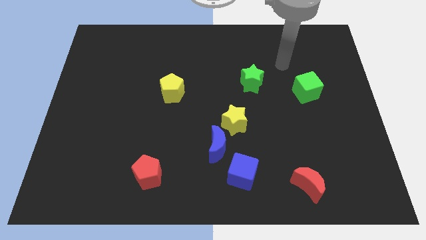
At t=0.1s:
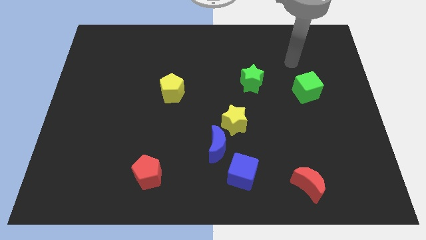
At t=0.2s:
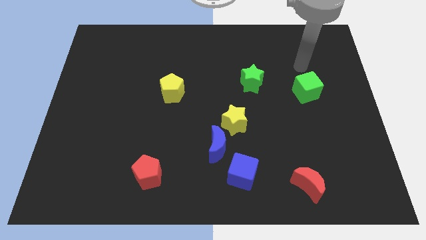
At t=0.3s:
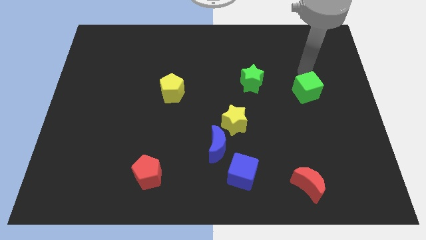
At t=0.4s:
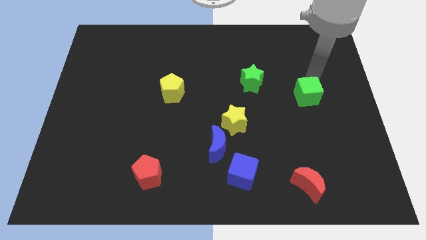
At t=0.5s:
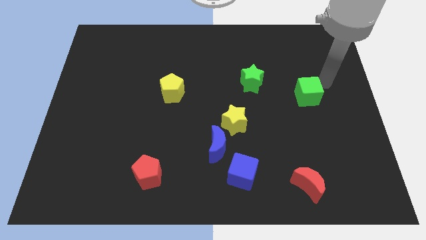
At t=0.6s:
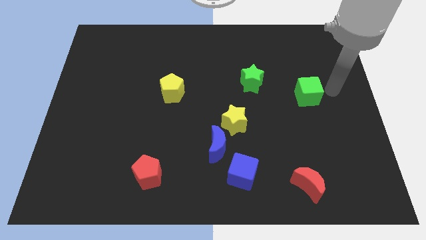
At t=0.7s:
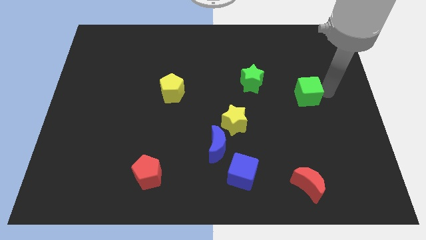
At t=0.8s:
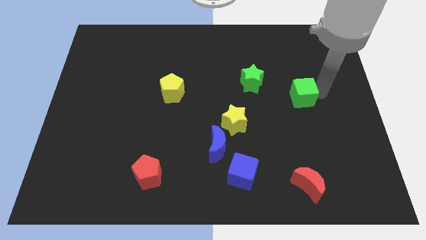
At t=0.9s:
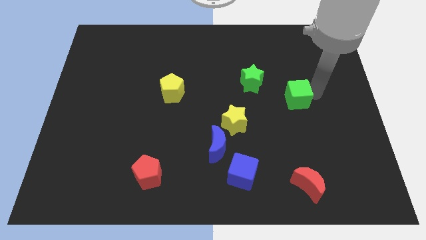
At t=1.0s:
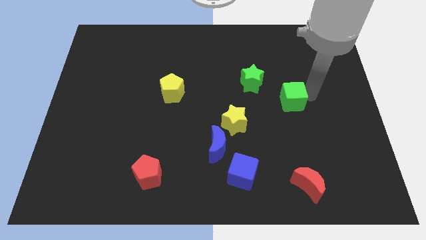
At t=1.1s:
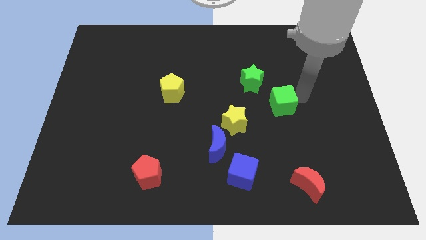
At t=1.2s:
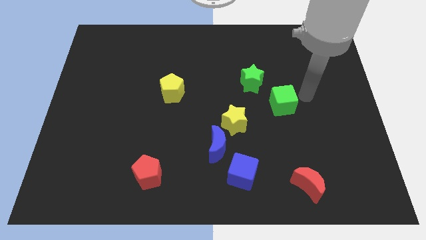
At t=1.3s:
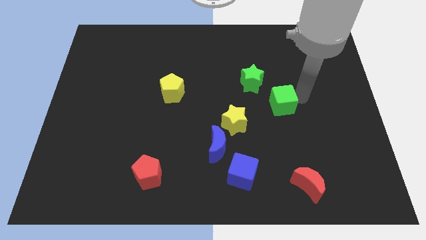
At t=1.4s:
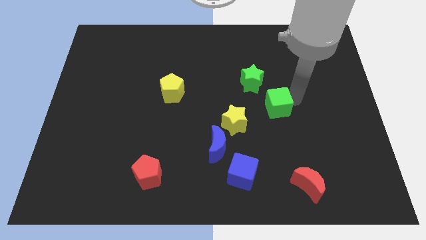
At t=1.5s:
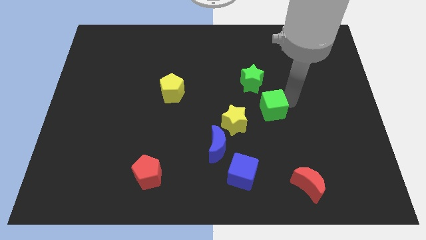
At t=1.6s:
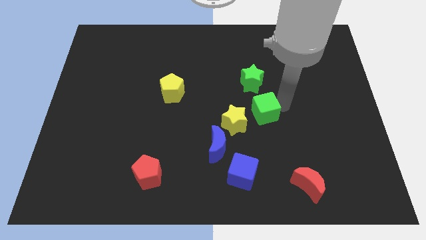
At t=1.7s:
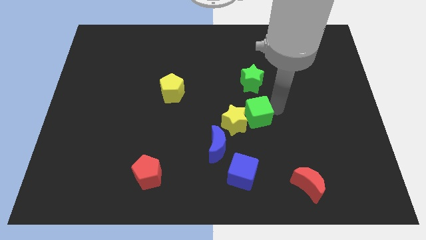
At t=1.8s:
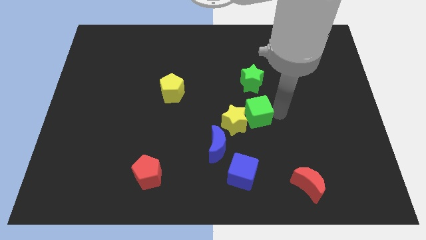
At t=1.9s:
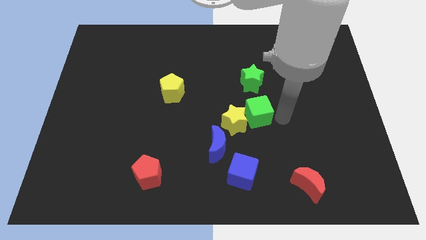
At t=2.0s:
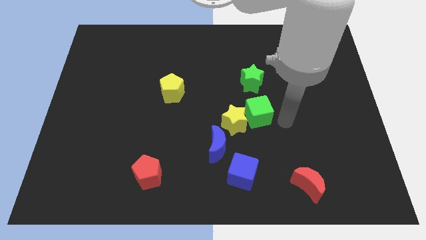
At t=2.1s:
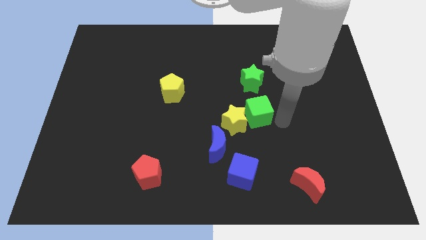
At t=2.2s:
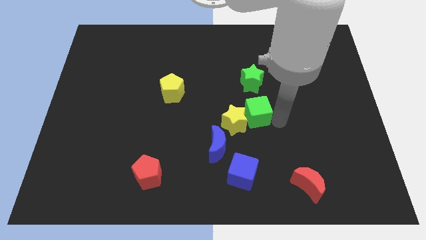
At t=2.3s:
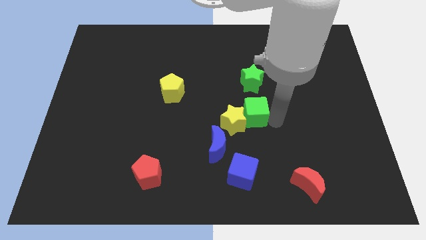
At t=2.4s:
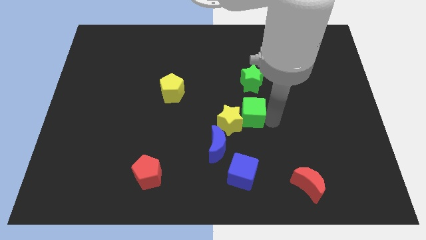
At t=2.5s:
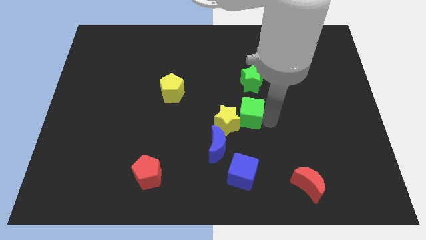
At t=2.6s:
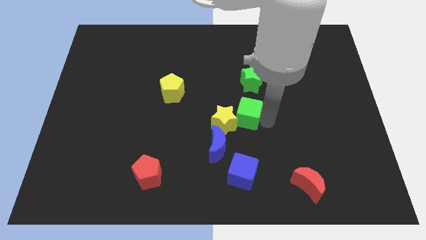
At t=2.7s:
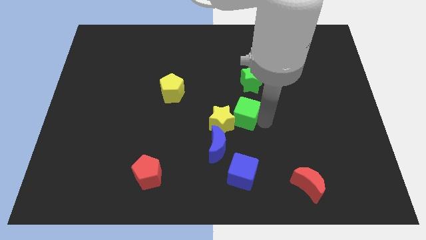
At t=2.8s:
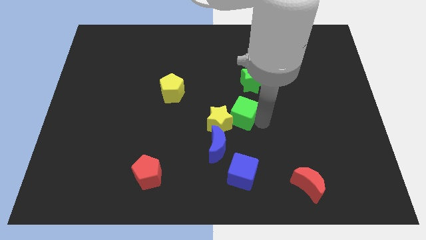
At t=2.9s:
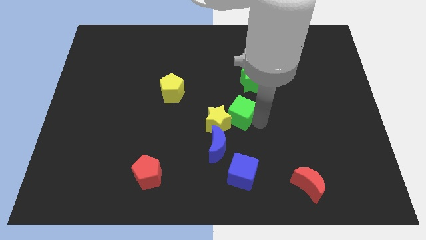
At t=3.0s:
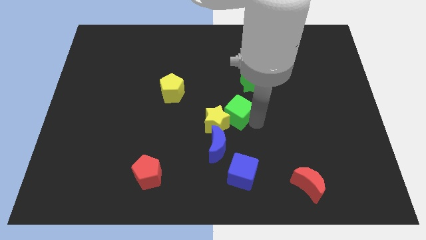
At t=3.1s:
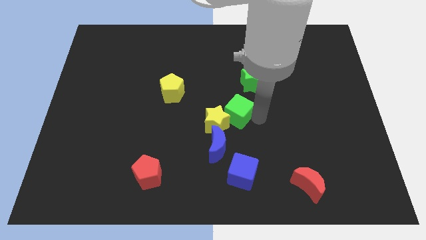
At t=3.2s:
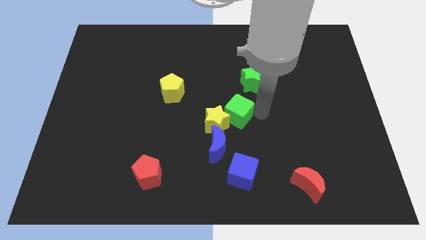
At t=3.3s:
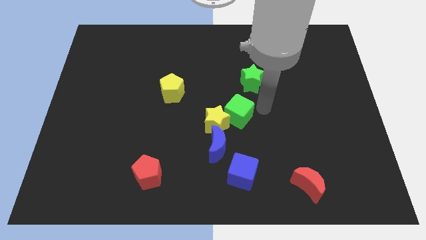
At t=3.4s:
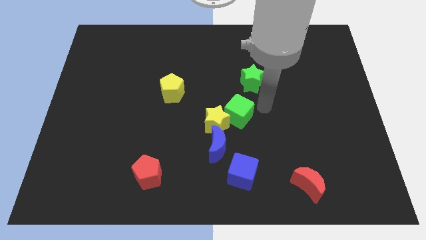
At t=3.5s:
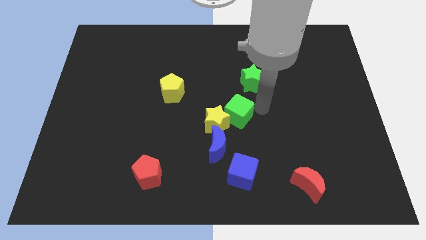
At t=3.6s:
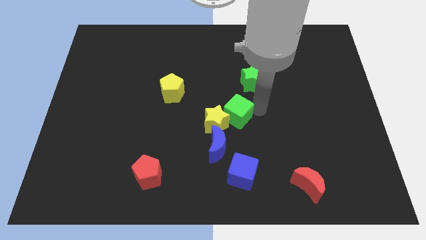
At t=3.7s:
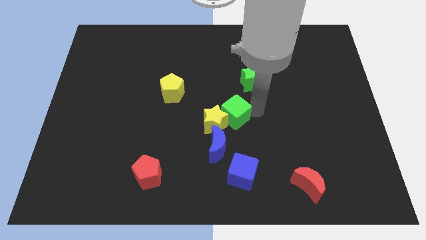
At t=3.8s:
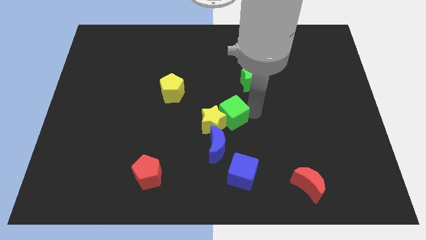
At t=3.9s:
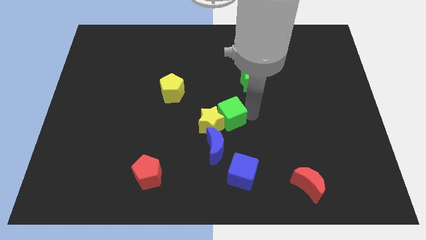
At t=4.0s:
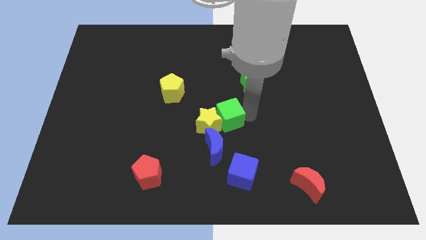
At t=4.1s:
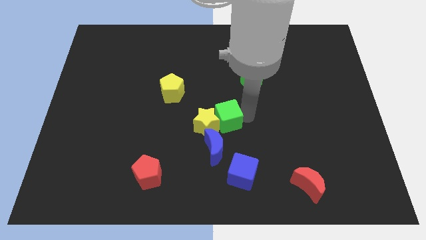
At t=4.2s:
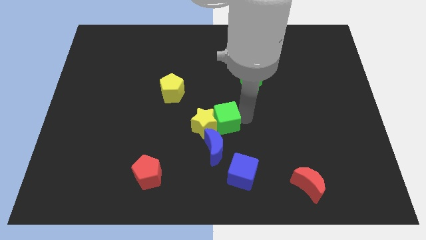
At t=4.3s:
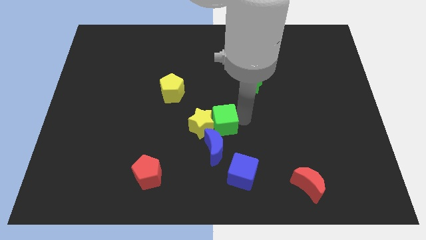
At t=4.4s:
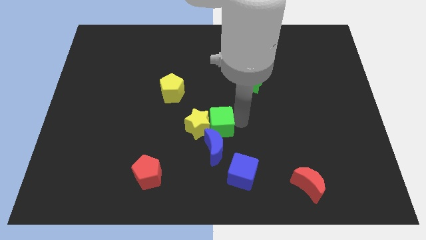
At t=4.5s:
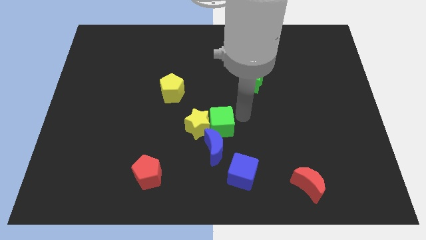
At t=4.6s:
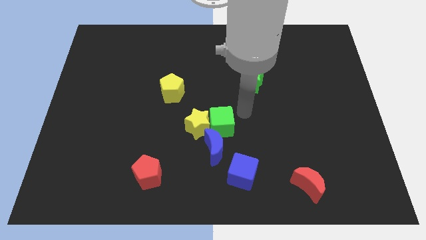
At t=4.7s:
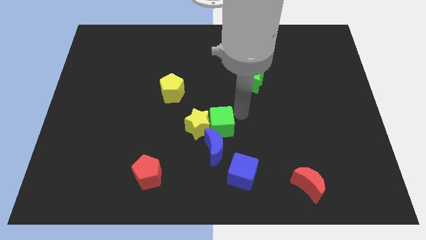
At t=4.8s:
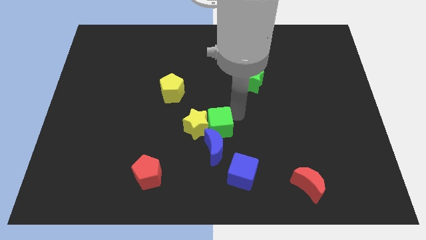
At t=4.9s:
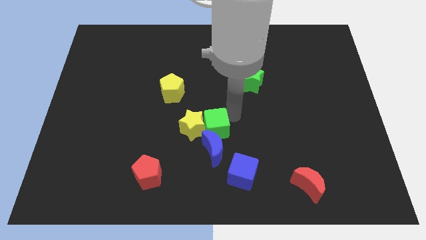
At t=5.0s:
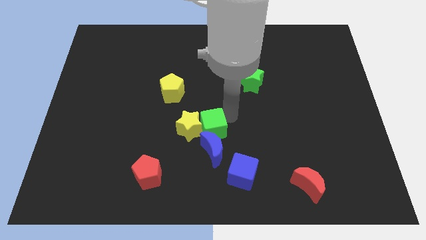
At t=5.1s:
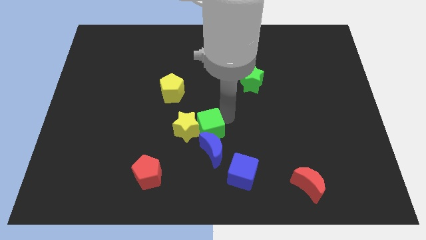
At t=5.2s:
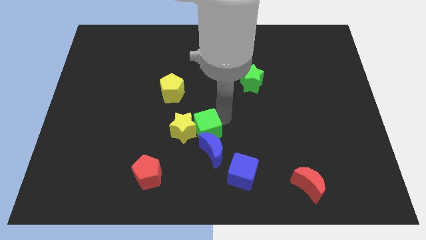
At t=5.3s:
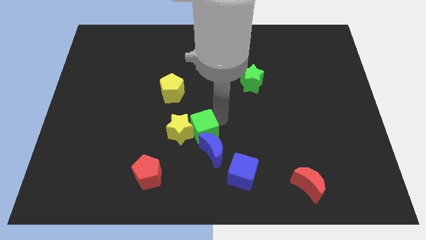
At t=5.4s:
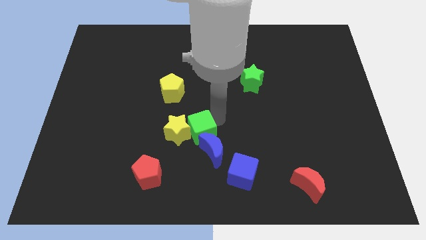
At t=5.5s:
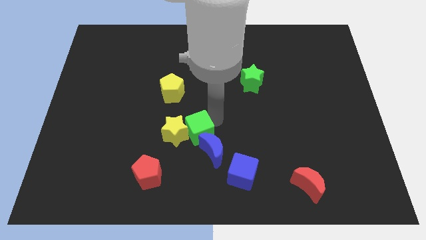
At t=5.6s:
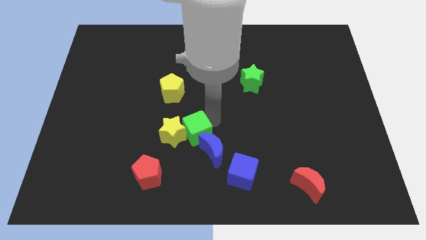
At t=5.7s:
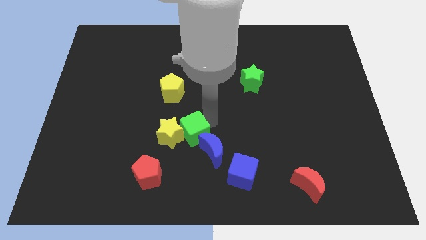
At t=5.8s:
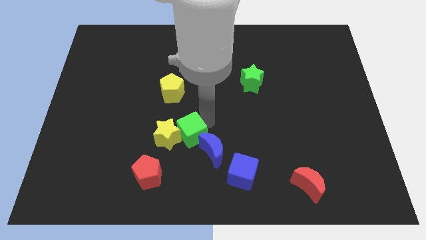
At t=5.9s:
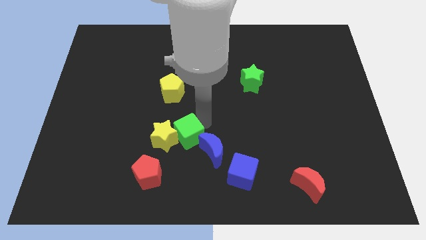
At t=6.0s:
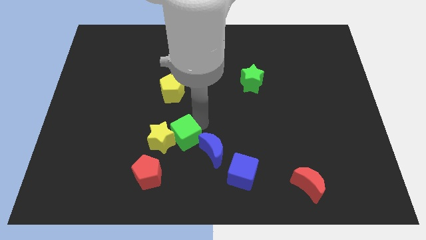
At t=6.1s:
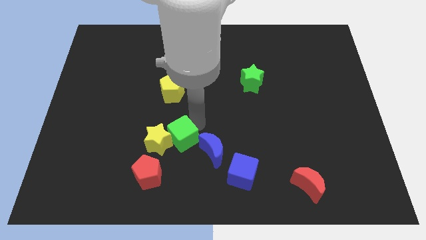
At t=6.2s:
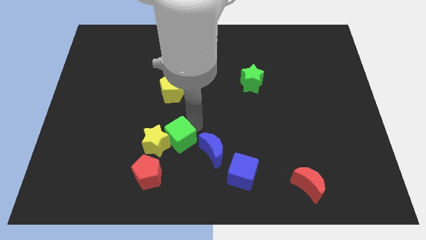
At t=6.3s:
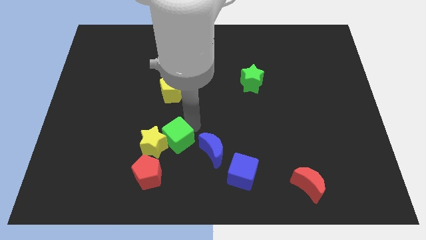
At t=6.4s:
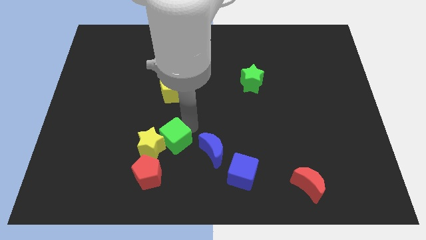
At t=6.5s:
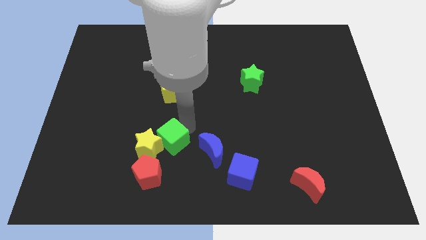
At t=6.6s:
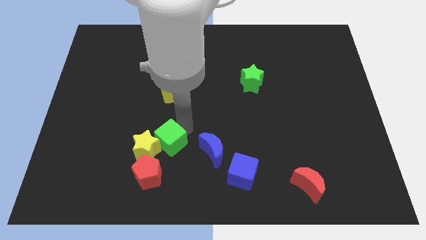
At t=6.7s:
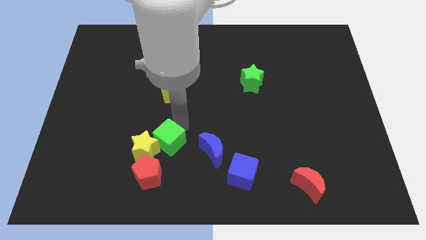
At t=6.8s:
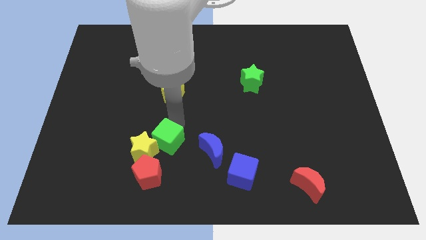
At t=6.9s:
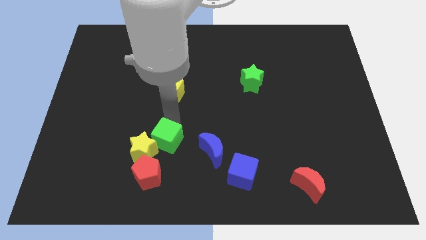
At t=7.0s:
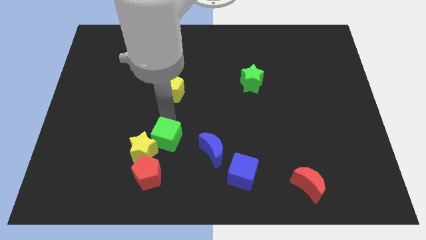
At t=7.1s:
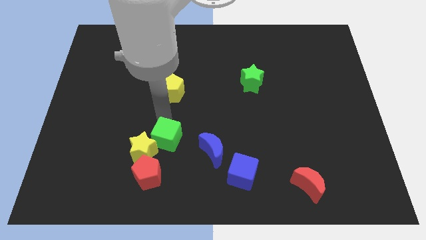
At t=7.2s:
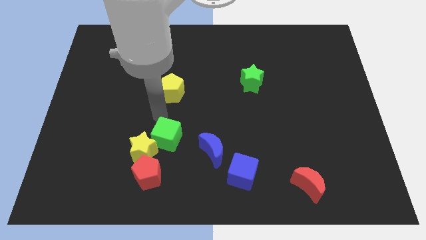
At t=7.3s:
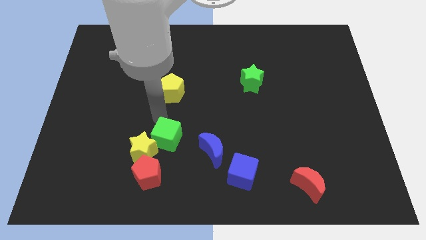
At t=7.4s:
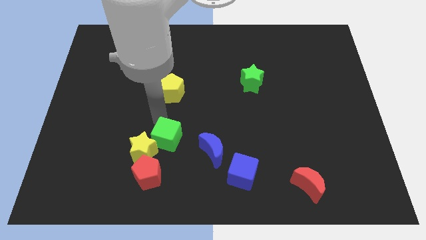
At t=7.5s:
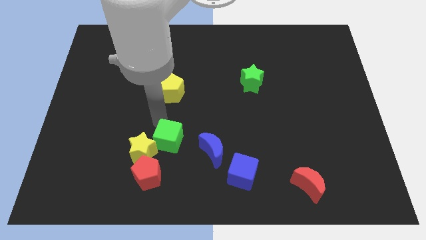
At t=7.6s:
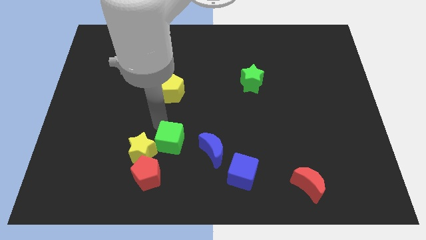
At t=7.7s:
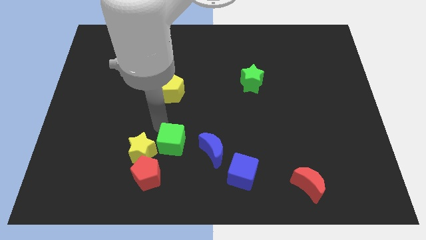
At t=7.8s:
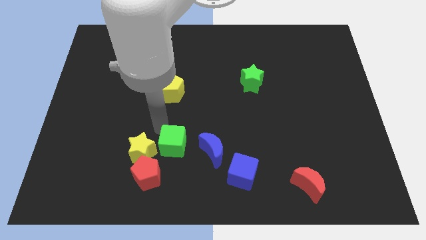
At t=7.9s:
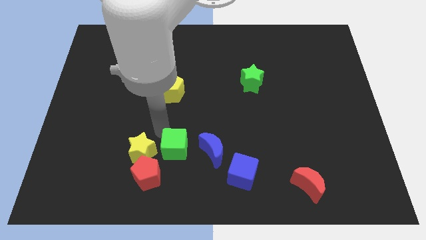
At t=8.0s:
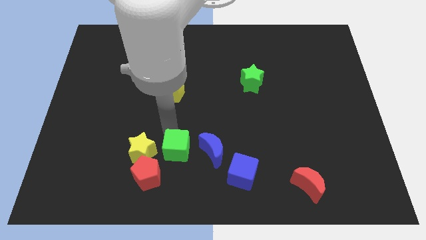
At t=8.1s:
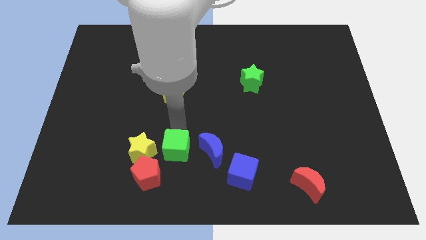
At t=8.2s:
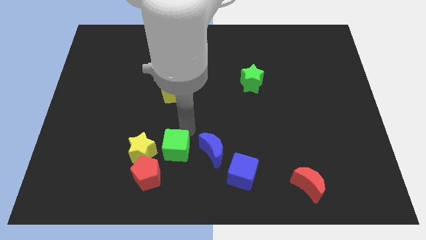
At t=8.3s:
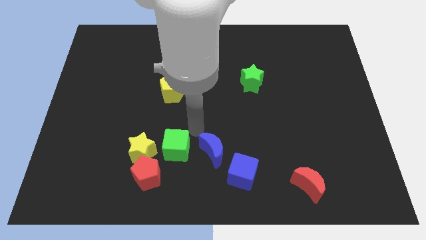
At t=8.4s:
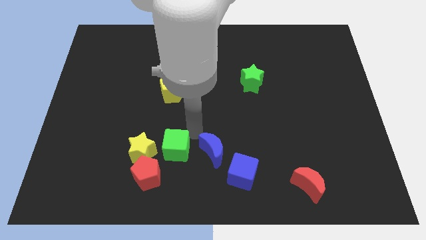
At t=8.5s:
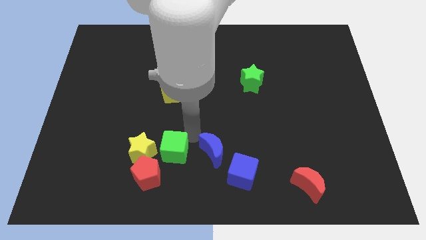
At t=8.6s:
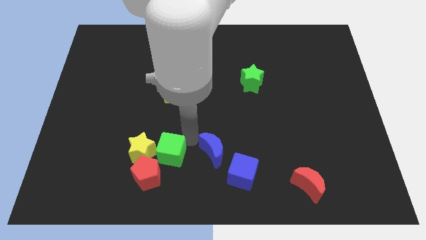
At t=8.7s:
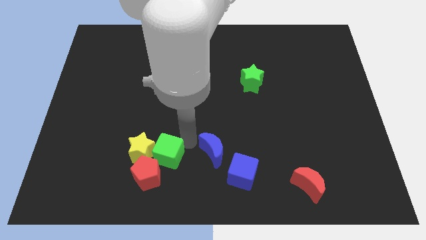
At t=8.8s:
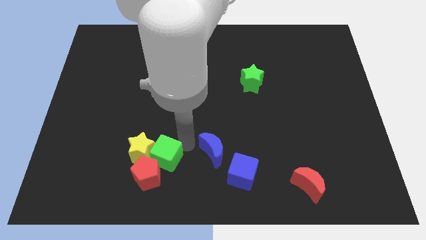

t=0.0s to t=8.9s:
slide the green cube close to the red pentagon
